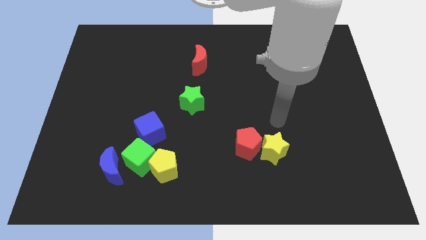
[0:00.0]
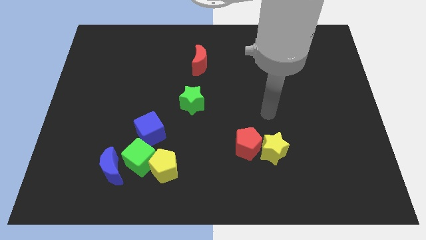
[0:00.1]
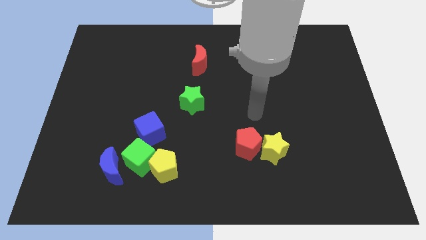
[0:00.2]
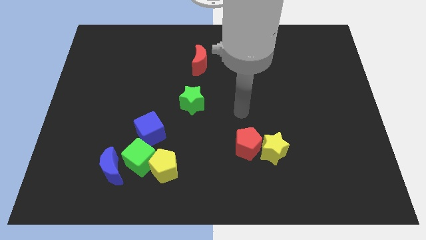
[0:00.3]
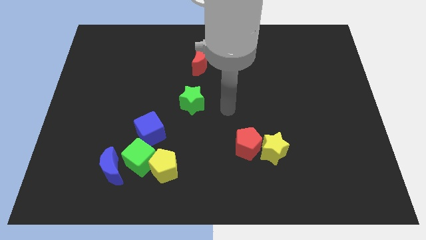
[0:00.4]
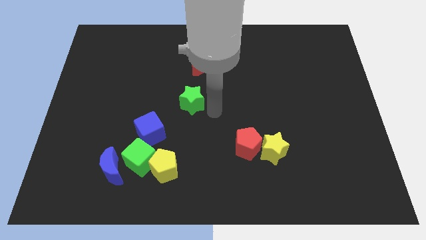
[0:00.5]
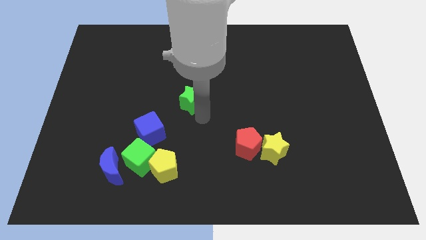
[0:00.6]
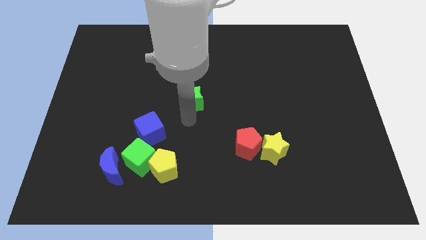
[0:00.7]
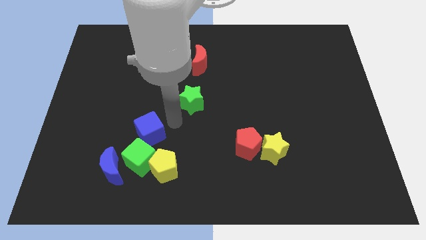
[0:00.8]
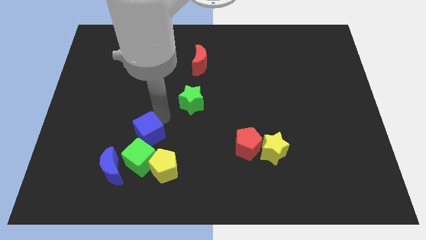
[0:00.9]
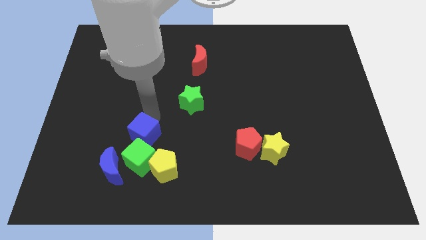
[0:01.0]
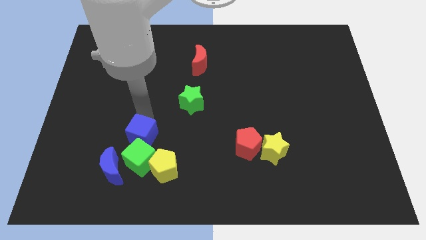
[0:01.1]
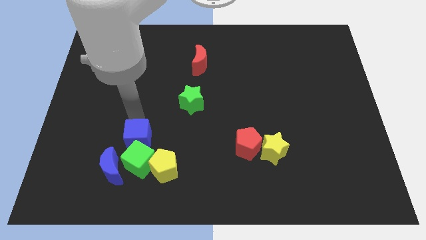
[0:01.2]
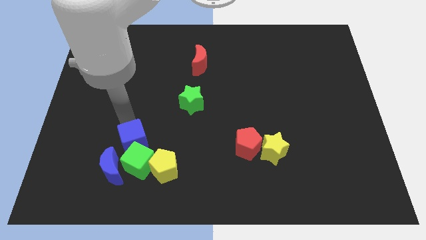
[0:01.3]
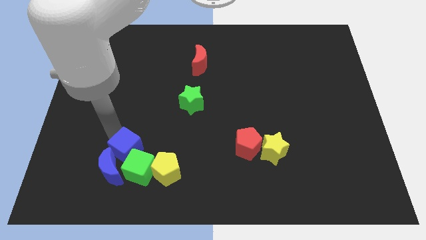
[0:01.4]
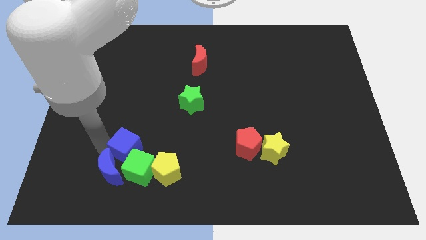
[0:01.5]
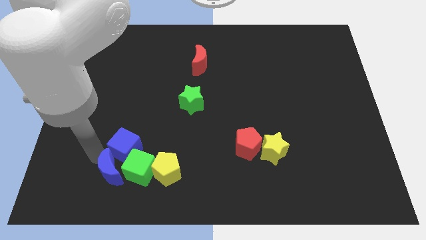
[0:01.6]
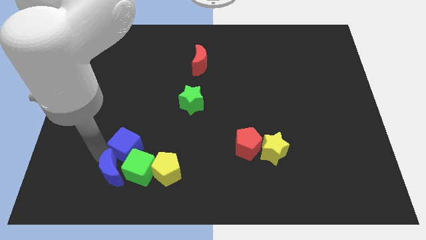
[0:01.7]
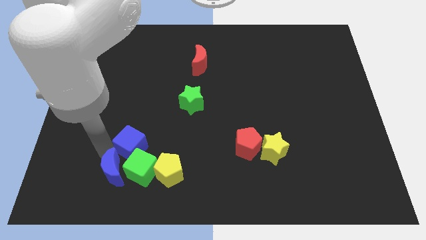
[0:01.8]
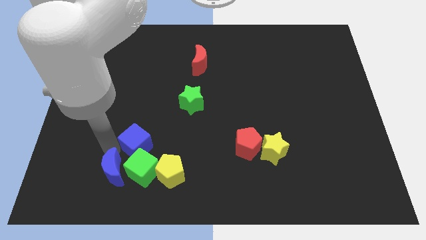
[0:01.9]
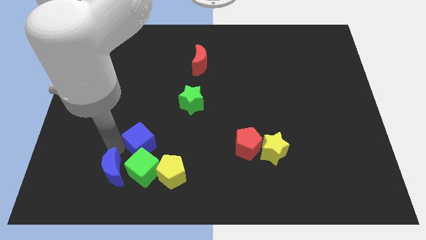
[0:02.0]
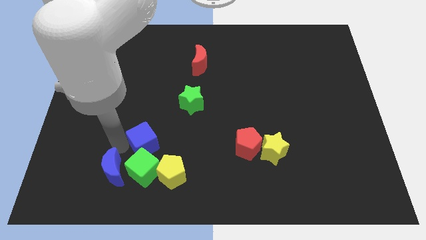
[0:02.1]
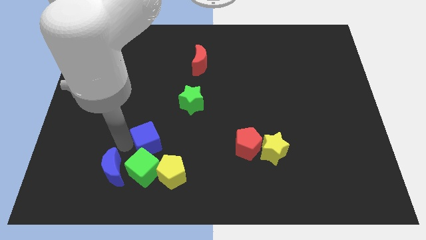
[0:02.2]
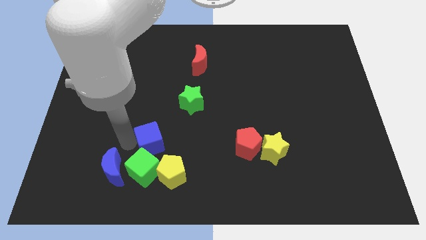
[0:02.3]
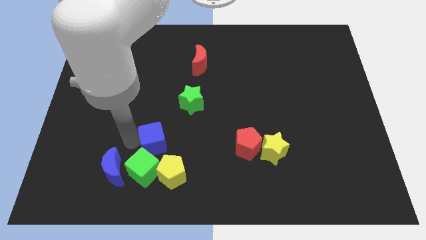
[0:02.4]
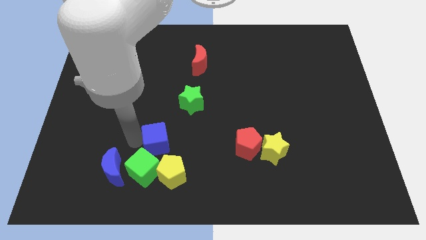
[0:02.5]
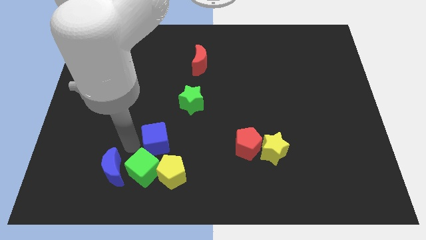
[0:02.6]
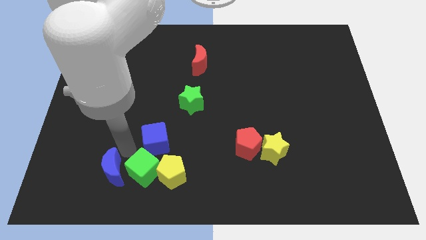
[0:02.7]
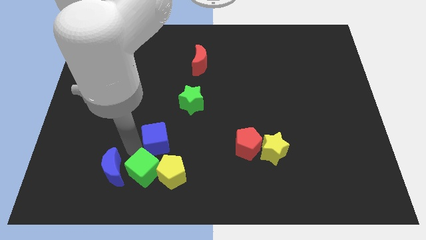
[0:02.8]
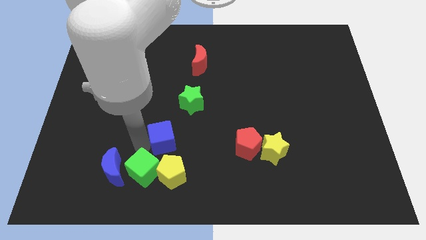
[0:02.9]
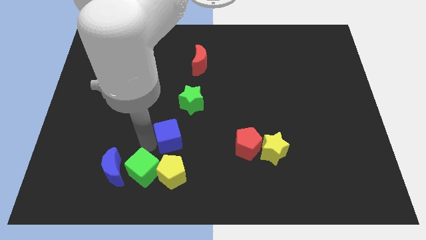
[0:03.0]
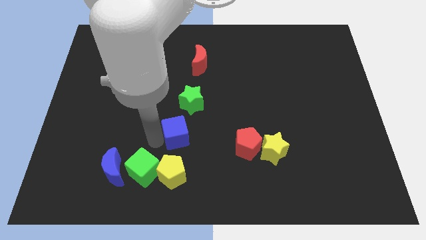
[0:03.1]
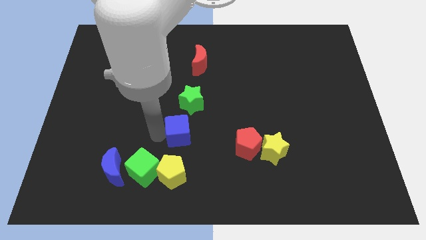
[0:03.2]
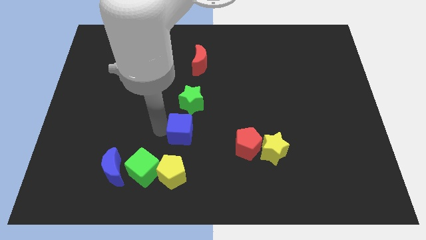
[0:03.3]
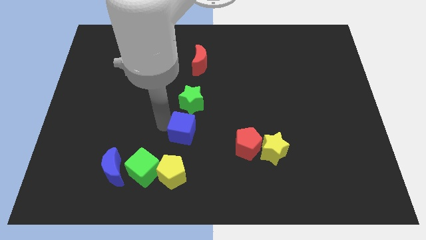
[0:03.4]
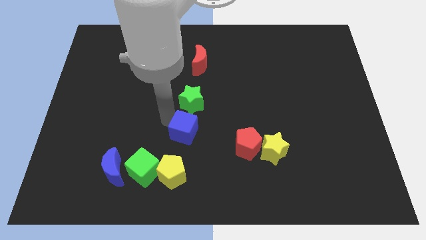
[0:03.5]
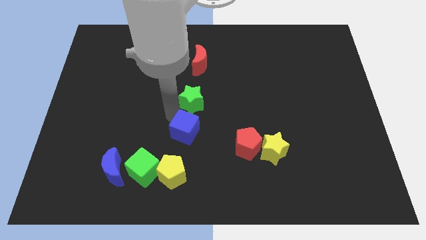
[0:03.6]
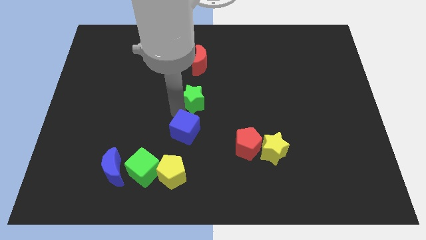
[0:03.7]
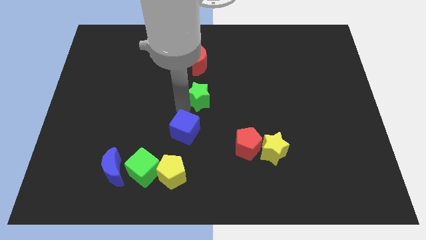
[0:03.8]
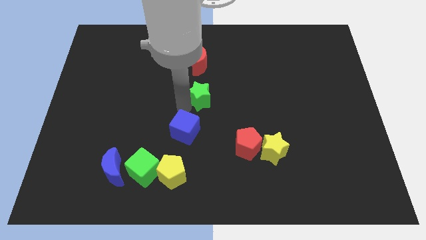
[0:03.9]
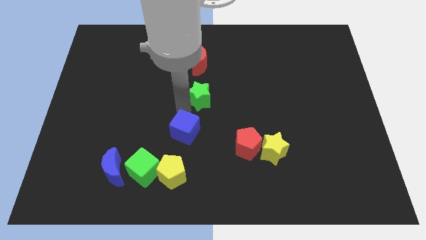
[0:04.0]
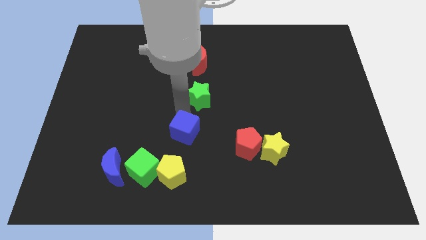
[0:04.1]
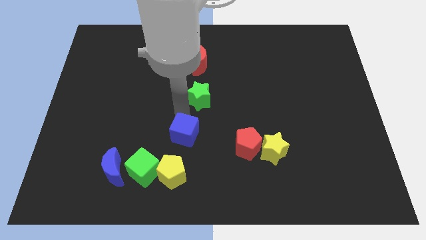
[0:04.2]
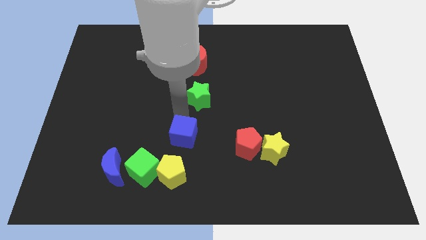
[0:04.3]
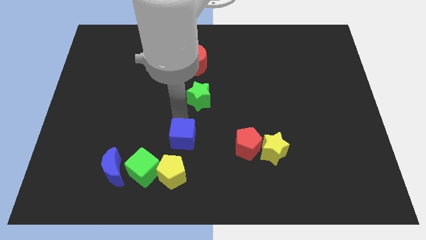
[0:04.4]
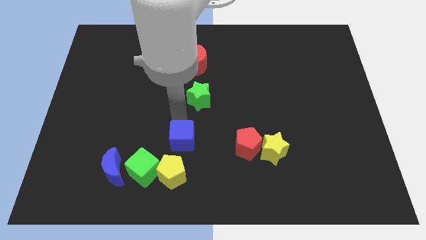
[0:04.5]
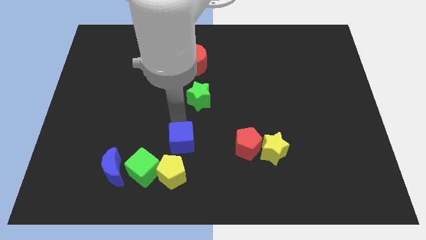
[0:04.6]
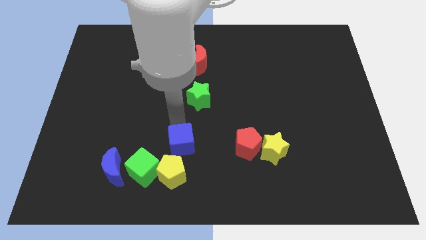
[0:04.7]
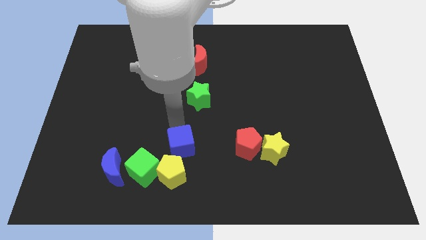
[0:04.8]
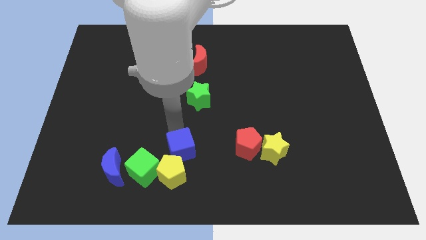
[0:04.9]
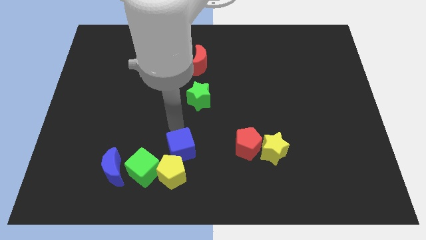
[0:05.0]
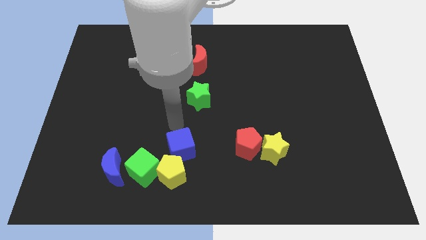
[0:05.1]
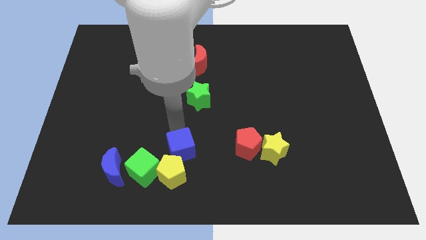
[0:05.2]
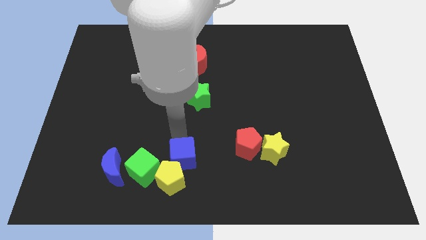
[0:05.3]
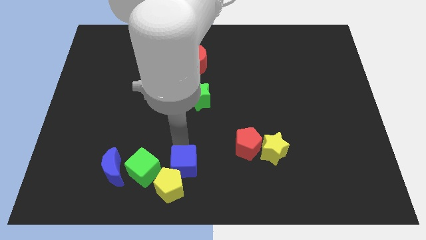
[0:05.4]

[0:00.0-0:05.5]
slide the blue cube to the bottom side
